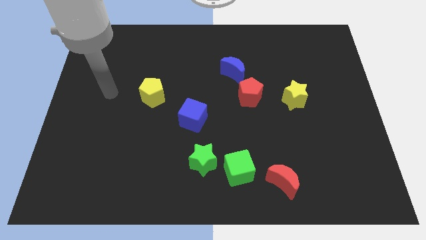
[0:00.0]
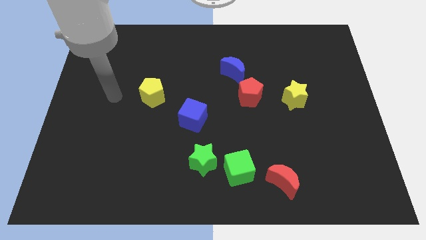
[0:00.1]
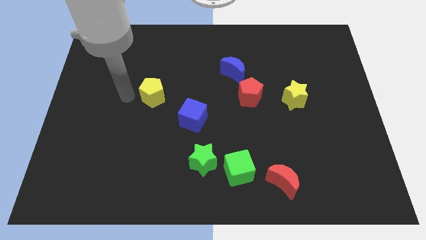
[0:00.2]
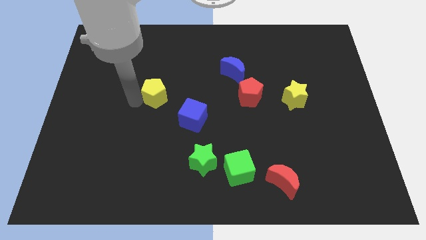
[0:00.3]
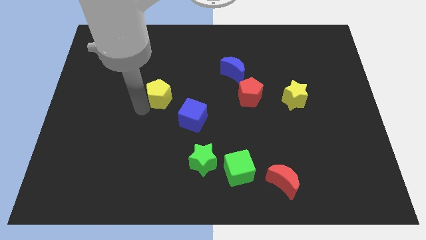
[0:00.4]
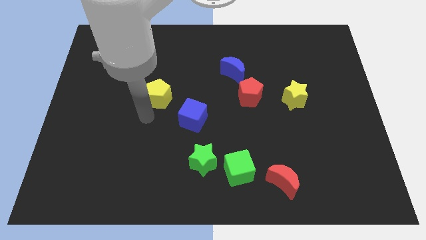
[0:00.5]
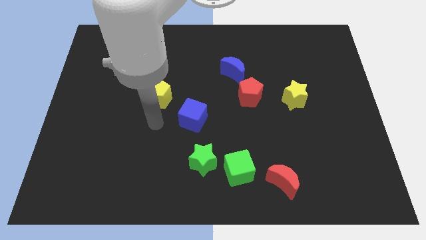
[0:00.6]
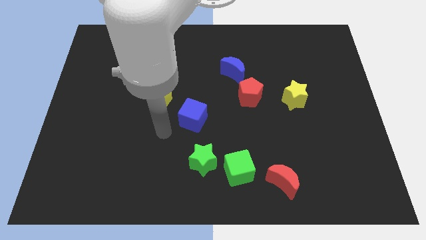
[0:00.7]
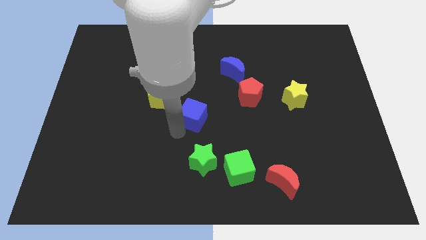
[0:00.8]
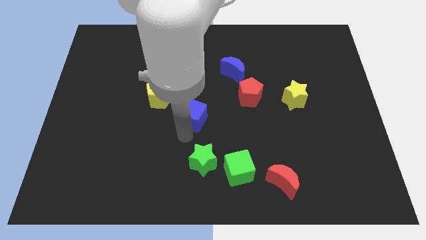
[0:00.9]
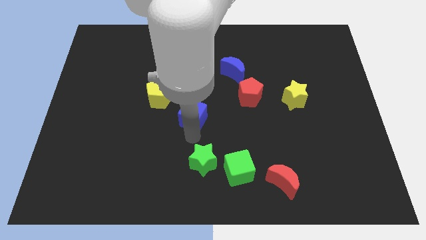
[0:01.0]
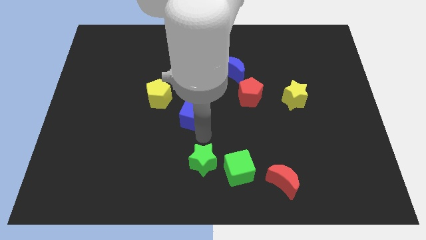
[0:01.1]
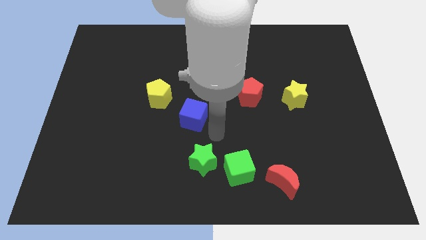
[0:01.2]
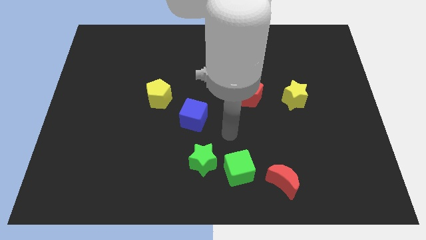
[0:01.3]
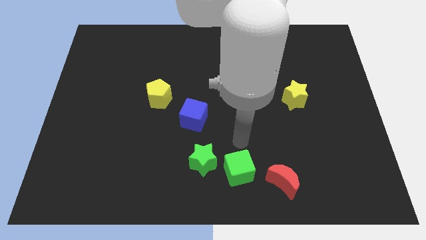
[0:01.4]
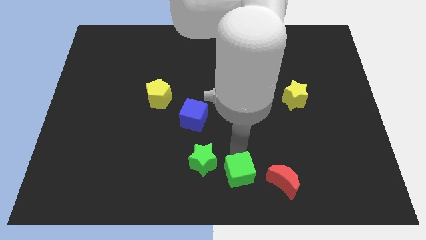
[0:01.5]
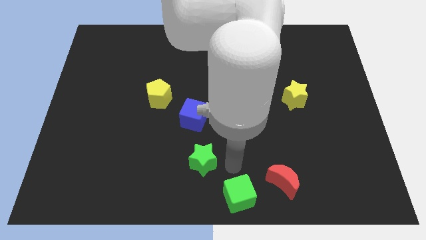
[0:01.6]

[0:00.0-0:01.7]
pull the green star apart from the green cube

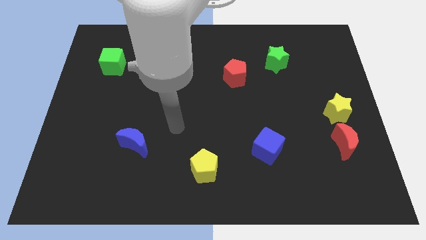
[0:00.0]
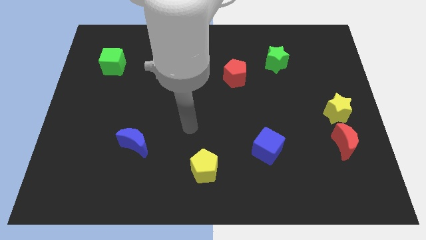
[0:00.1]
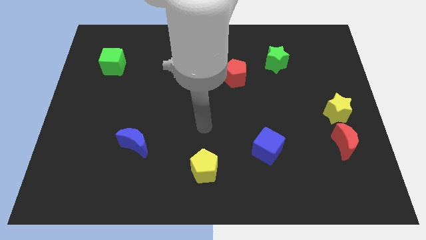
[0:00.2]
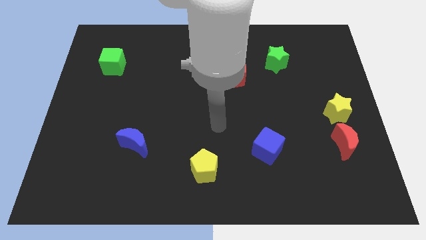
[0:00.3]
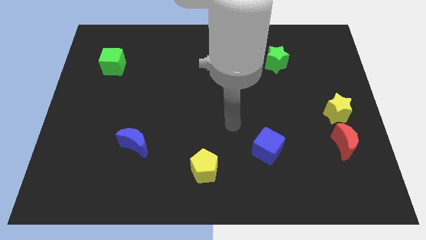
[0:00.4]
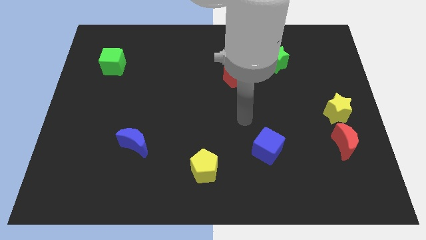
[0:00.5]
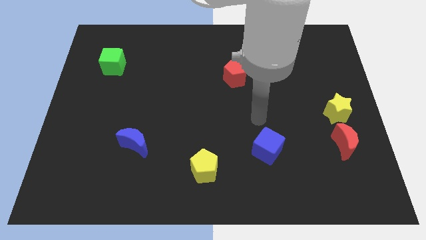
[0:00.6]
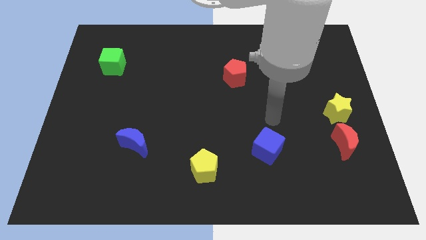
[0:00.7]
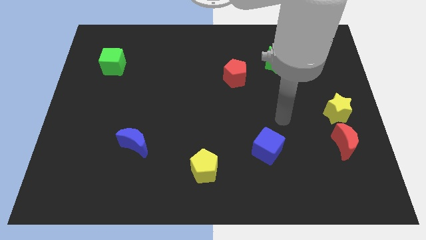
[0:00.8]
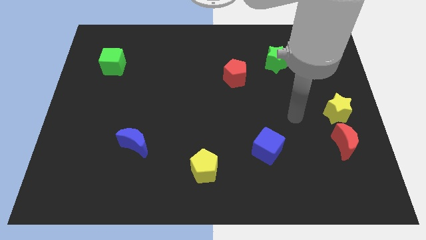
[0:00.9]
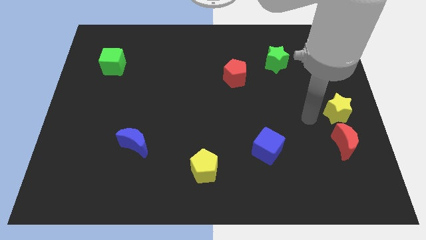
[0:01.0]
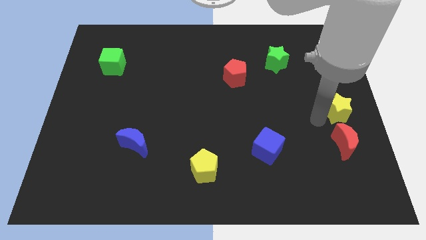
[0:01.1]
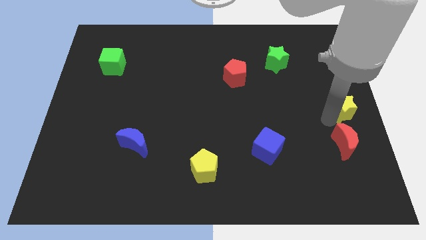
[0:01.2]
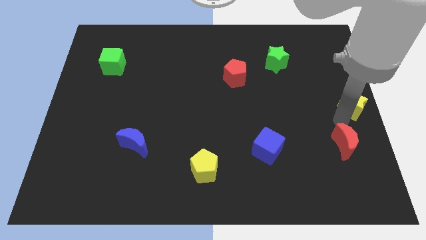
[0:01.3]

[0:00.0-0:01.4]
separate the red moon from the yellow star

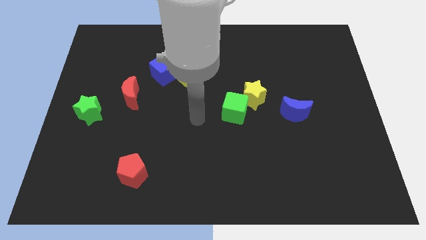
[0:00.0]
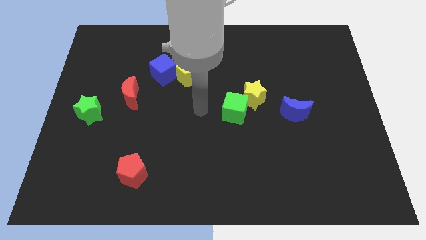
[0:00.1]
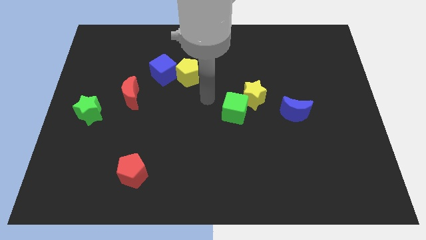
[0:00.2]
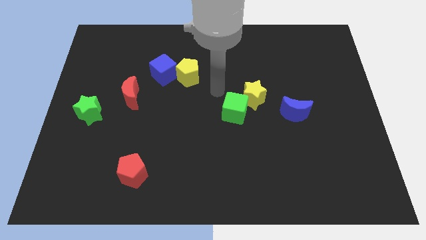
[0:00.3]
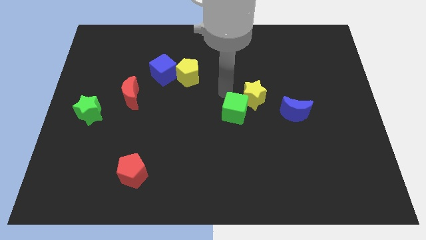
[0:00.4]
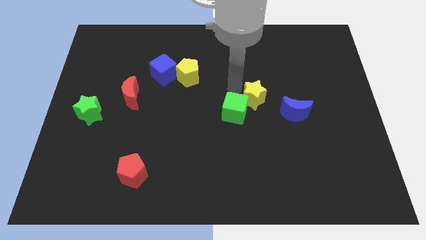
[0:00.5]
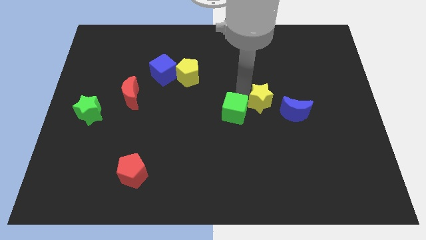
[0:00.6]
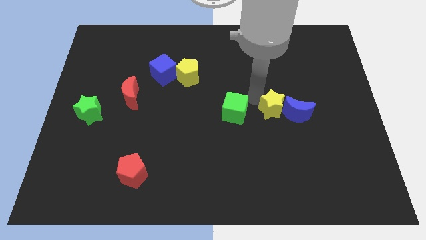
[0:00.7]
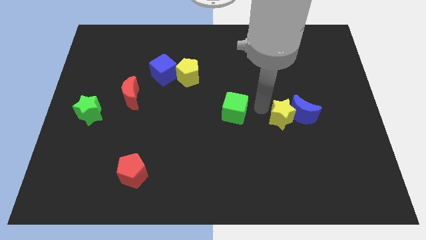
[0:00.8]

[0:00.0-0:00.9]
move the green cube away from the yellow star

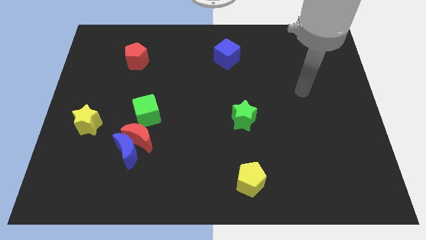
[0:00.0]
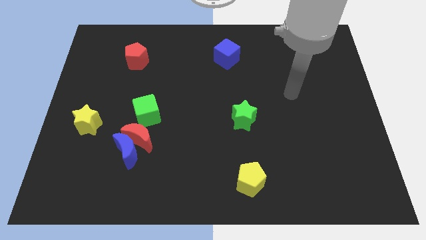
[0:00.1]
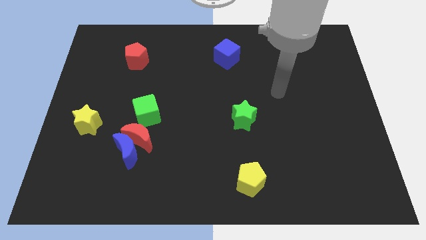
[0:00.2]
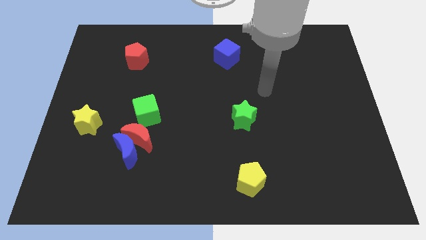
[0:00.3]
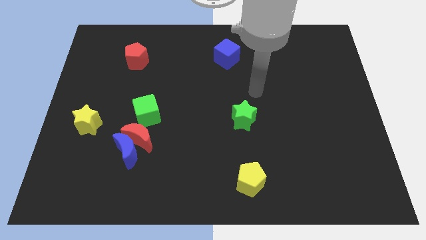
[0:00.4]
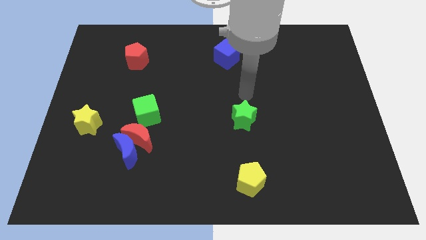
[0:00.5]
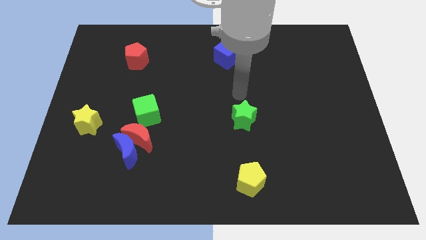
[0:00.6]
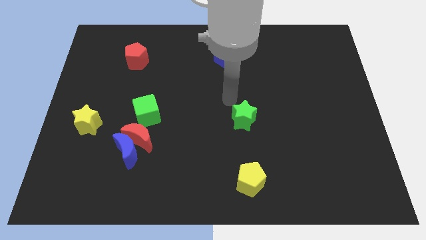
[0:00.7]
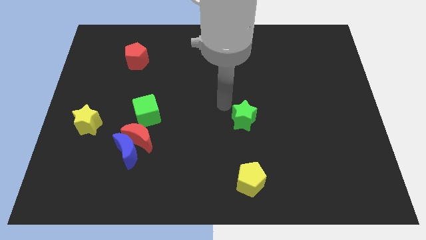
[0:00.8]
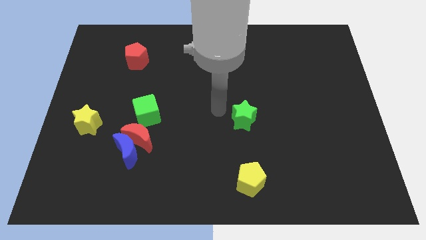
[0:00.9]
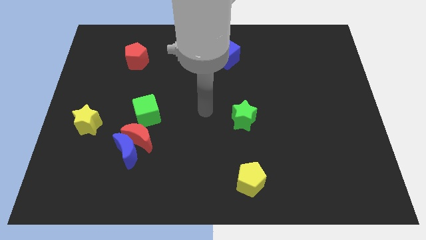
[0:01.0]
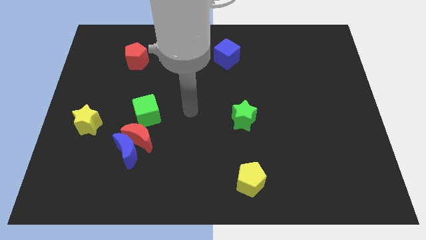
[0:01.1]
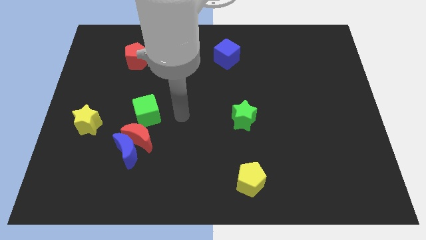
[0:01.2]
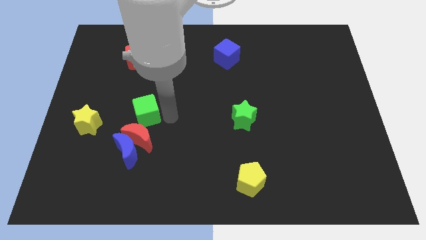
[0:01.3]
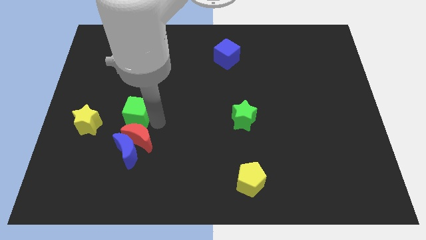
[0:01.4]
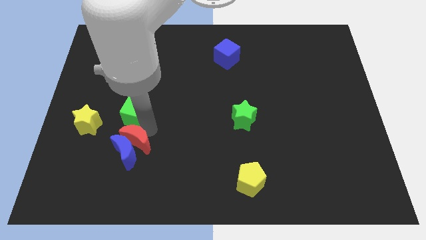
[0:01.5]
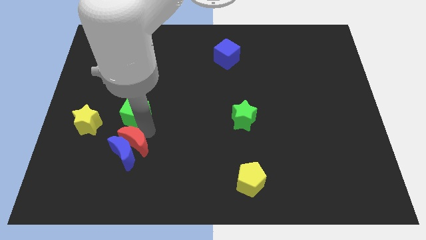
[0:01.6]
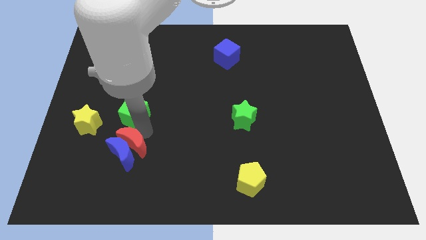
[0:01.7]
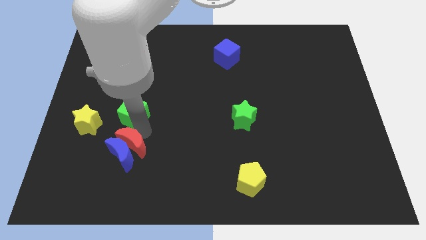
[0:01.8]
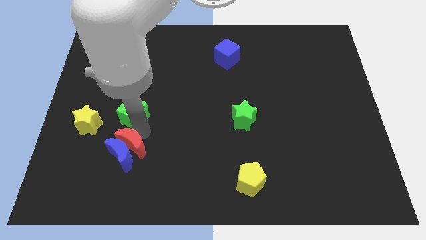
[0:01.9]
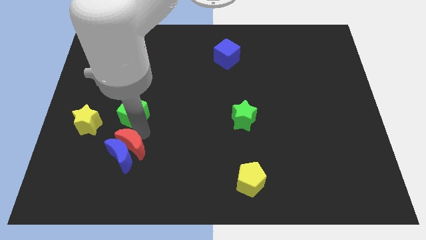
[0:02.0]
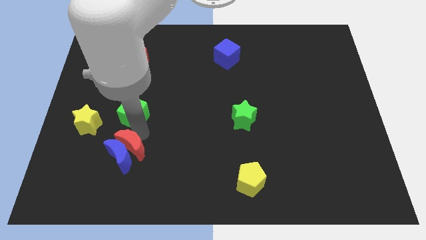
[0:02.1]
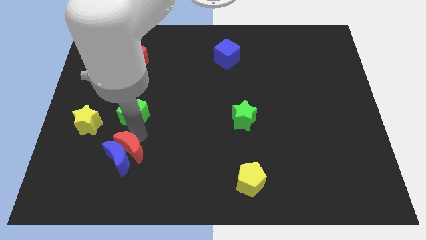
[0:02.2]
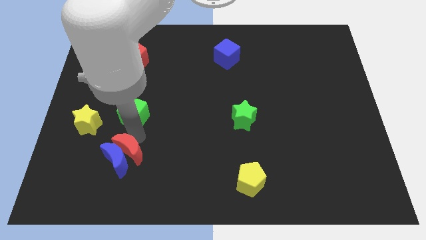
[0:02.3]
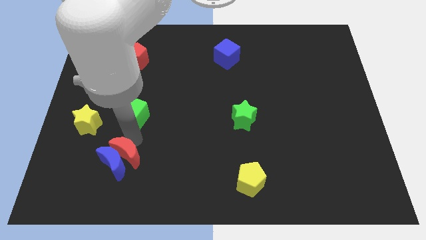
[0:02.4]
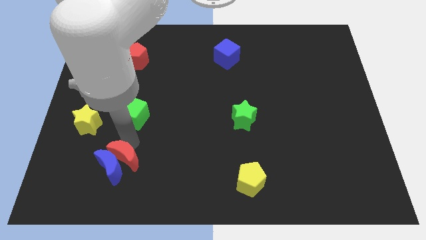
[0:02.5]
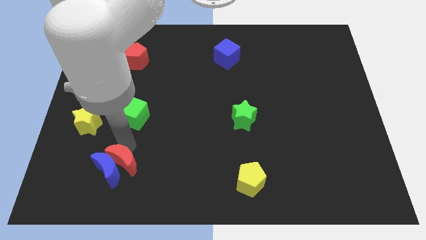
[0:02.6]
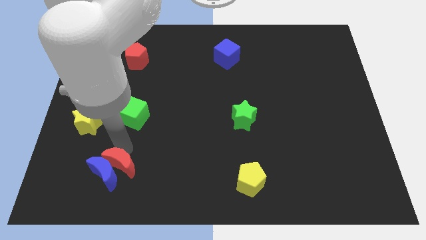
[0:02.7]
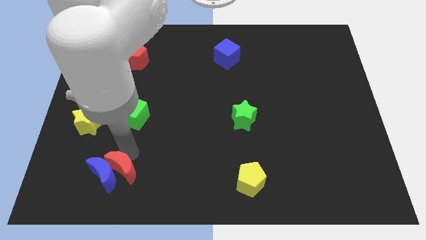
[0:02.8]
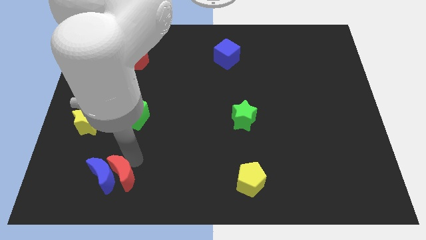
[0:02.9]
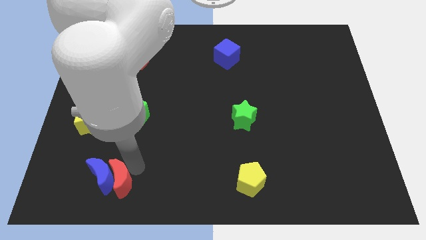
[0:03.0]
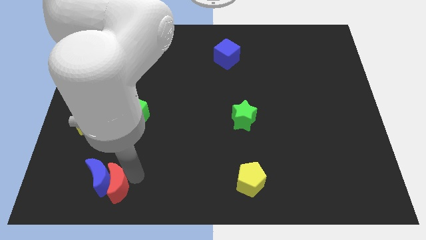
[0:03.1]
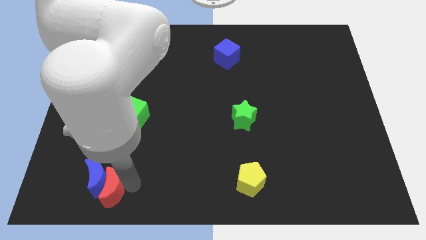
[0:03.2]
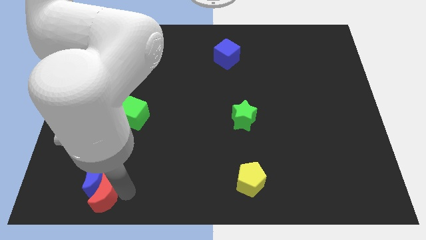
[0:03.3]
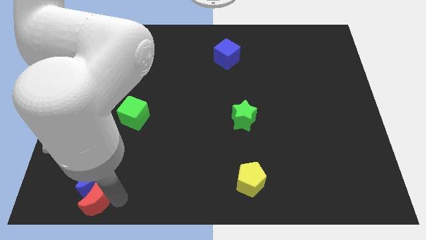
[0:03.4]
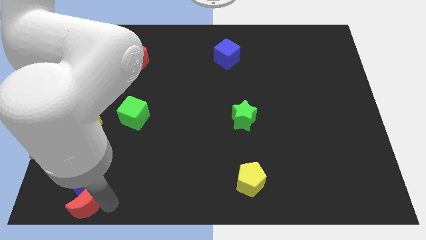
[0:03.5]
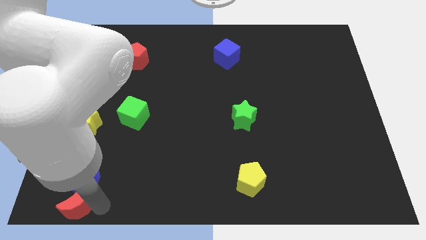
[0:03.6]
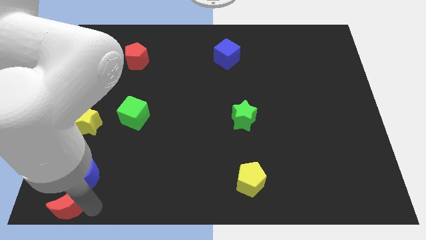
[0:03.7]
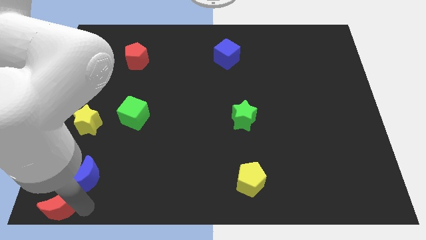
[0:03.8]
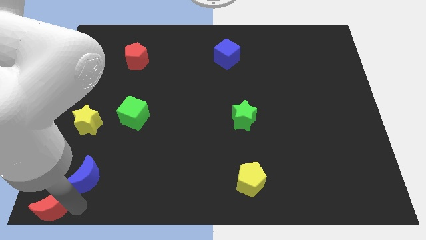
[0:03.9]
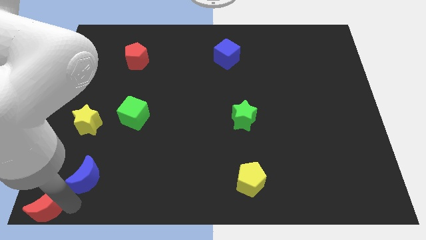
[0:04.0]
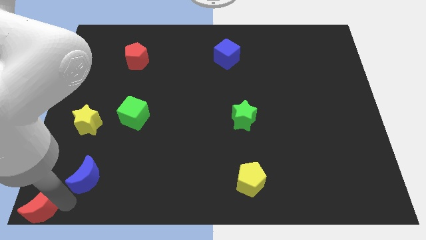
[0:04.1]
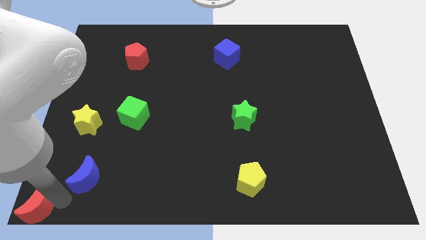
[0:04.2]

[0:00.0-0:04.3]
move the blue moon away from the red moon

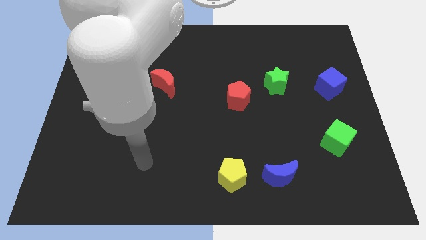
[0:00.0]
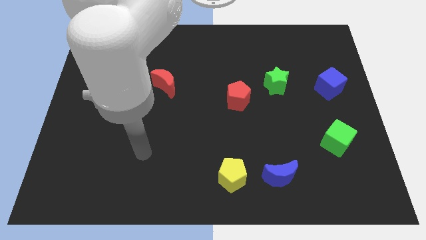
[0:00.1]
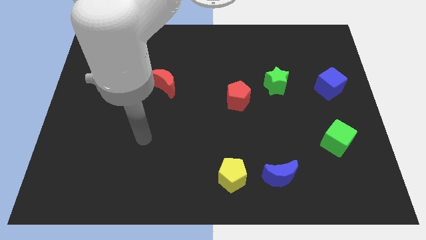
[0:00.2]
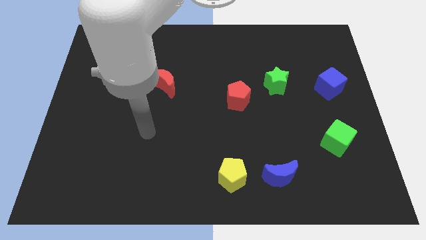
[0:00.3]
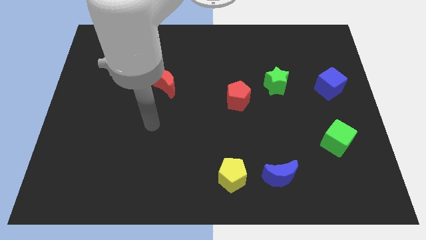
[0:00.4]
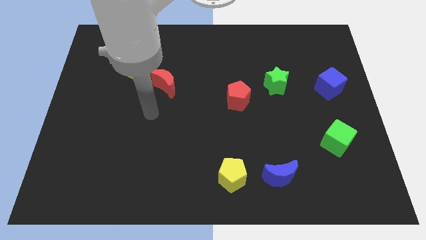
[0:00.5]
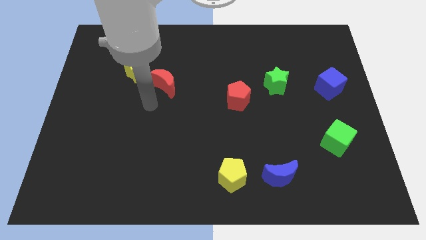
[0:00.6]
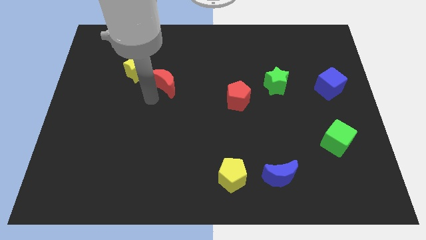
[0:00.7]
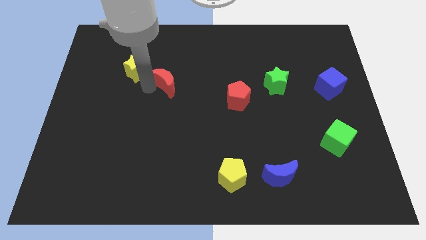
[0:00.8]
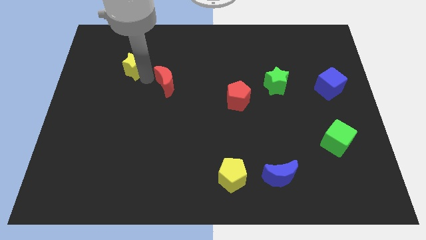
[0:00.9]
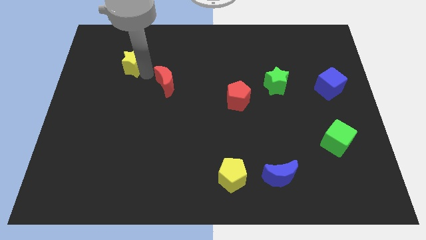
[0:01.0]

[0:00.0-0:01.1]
pull the red moon apart from the yellow star
